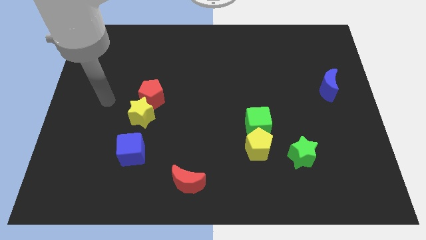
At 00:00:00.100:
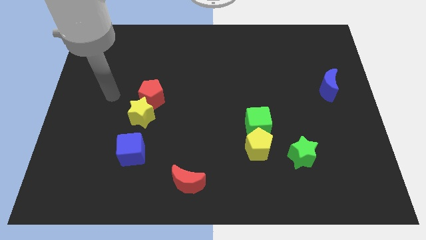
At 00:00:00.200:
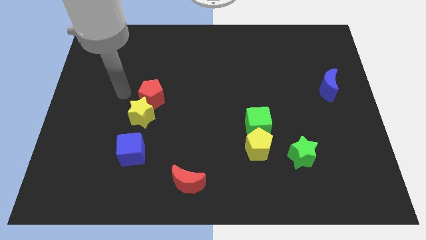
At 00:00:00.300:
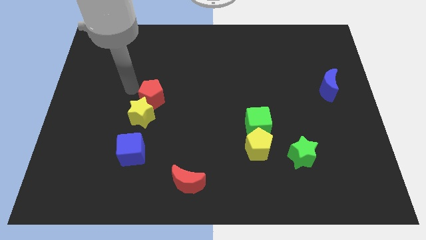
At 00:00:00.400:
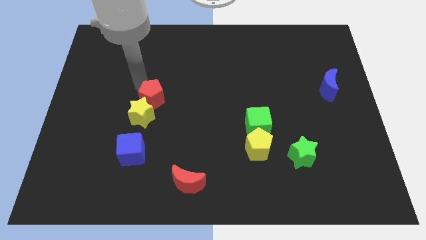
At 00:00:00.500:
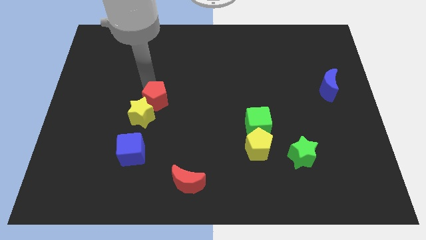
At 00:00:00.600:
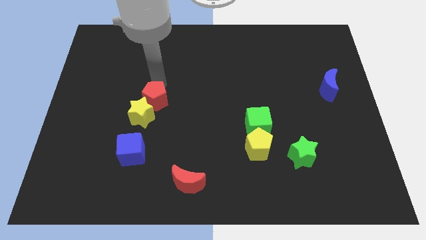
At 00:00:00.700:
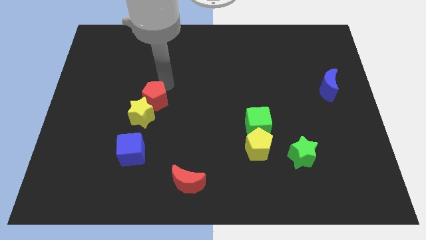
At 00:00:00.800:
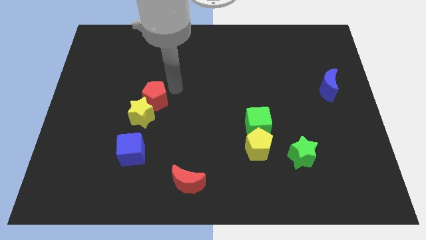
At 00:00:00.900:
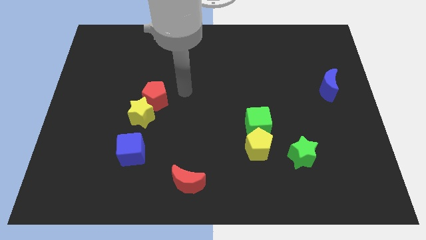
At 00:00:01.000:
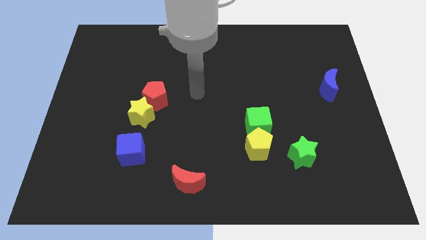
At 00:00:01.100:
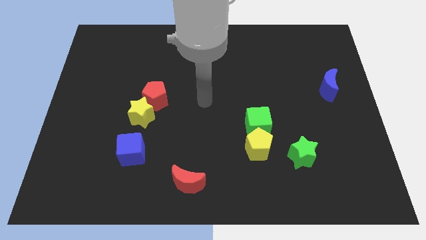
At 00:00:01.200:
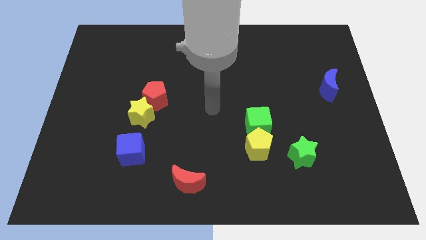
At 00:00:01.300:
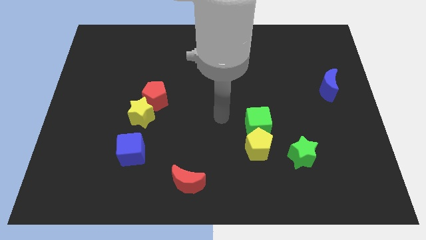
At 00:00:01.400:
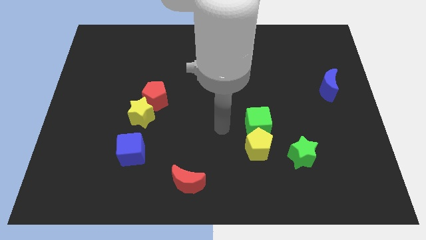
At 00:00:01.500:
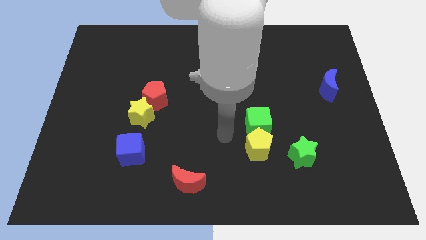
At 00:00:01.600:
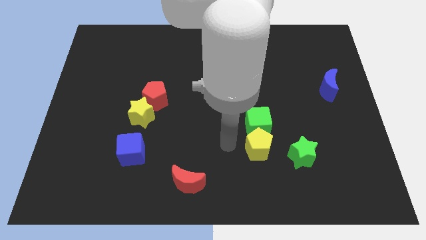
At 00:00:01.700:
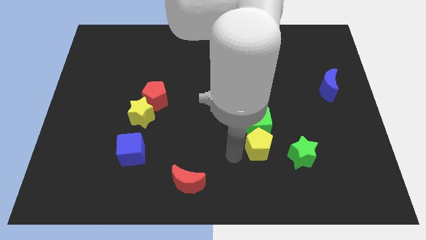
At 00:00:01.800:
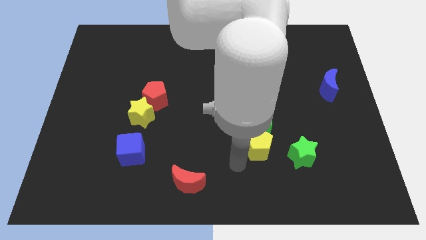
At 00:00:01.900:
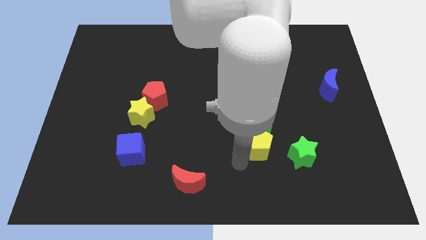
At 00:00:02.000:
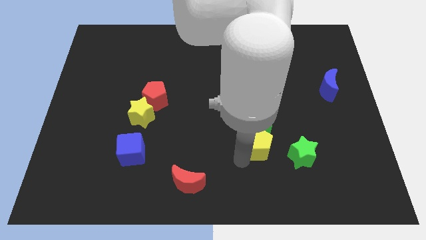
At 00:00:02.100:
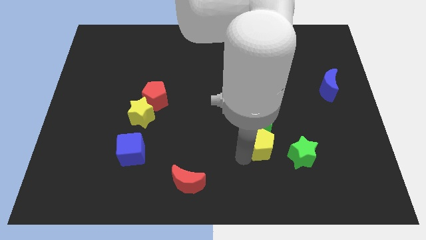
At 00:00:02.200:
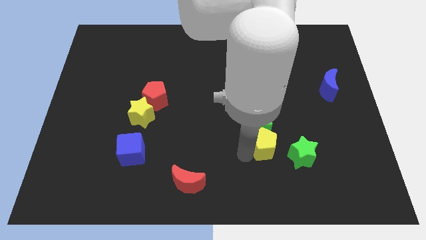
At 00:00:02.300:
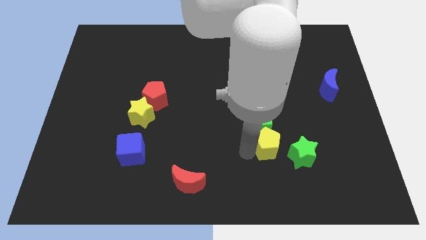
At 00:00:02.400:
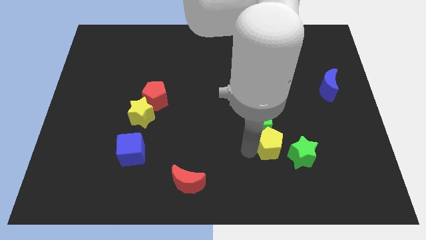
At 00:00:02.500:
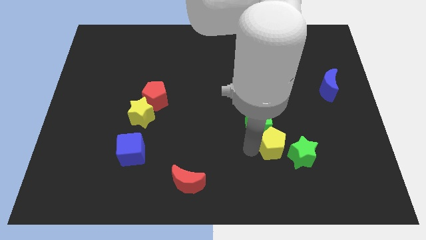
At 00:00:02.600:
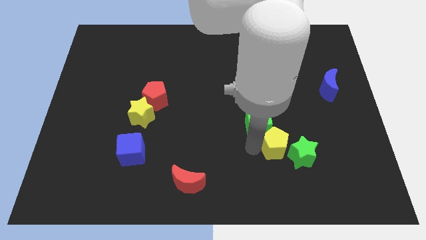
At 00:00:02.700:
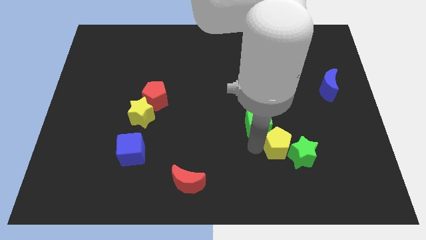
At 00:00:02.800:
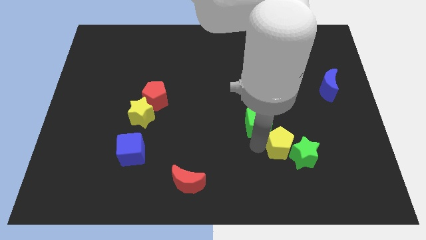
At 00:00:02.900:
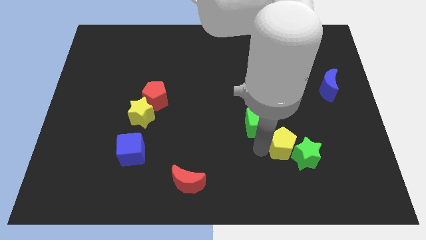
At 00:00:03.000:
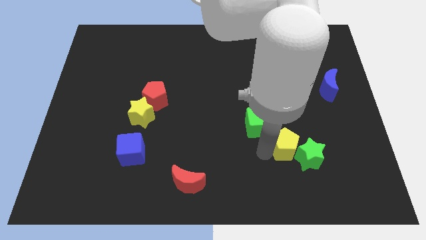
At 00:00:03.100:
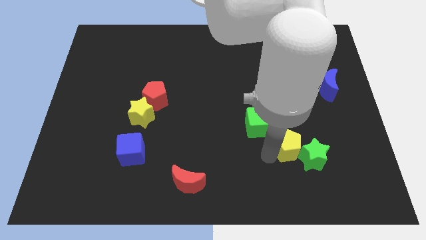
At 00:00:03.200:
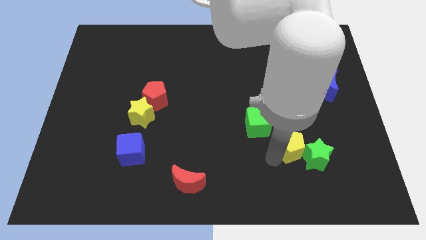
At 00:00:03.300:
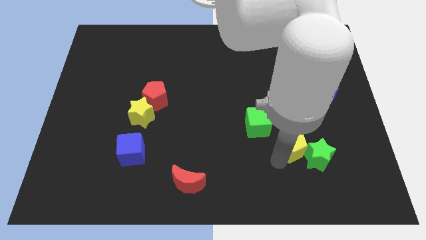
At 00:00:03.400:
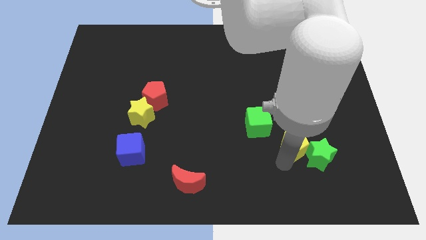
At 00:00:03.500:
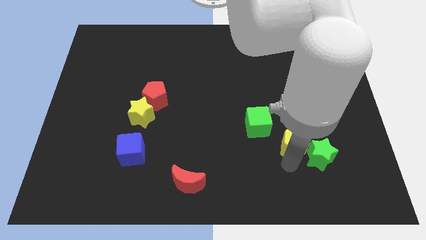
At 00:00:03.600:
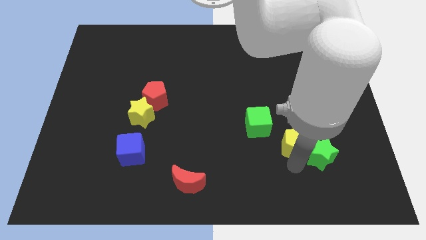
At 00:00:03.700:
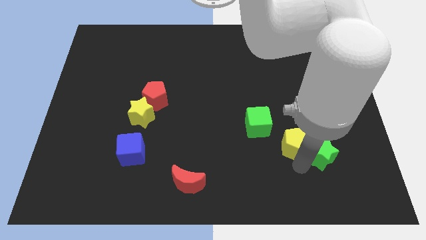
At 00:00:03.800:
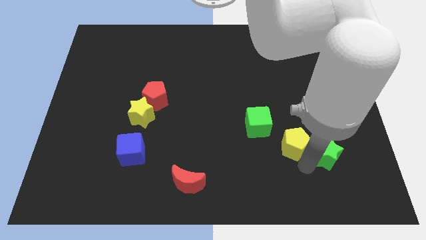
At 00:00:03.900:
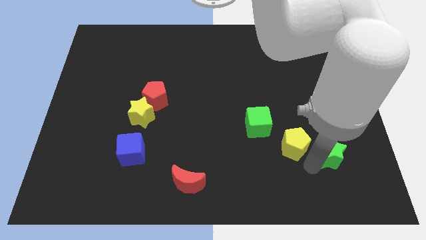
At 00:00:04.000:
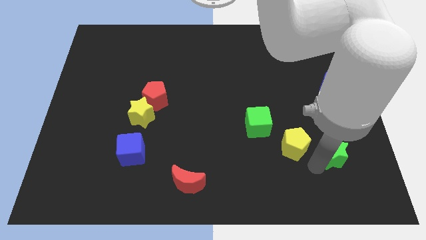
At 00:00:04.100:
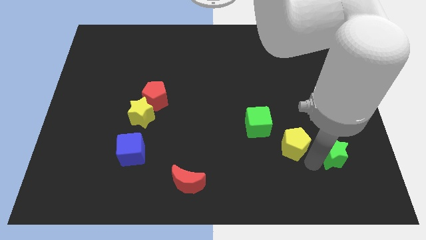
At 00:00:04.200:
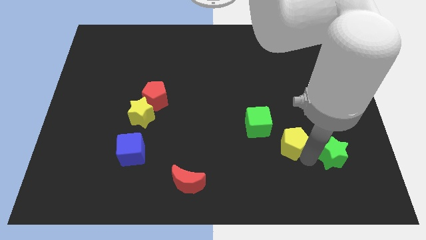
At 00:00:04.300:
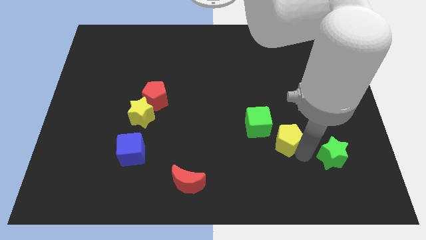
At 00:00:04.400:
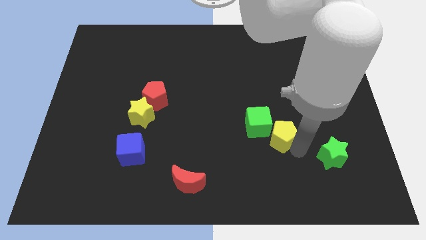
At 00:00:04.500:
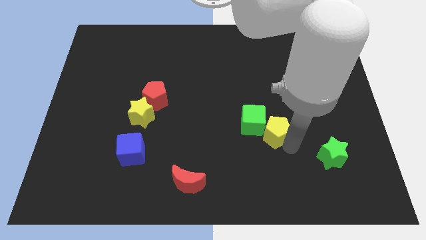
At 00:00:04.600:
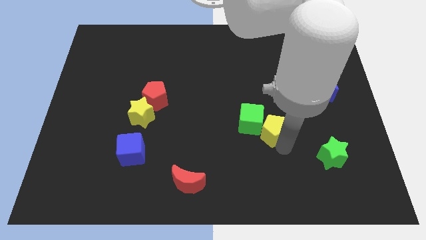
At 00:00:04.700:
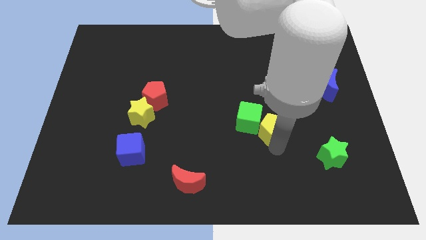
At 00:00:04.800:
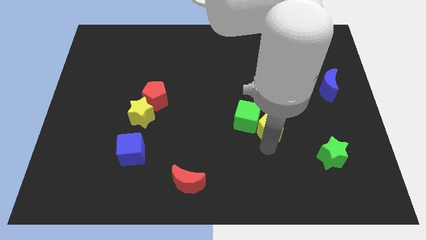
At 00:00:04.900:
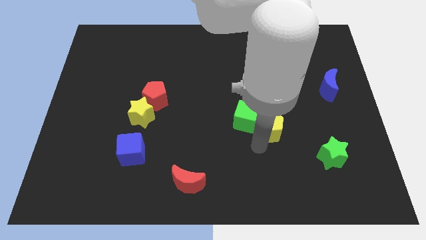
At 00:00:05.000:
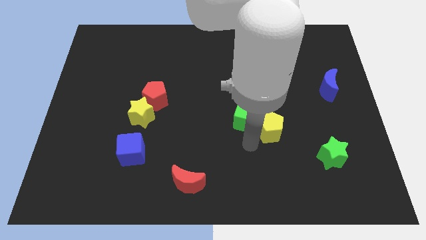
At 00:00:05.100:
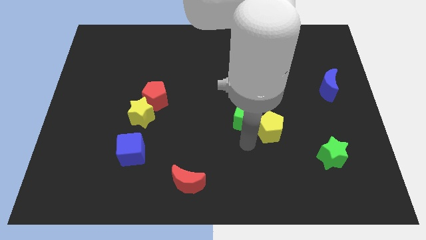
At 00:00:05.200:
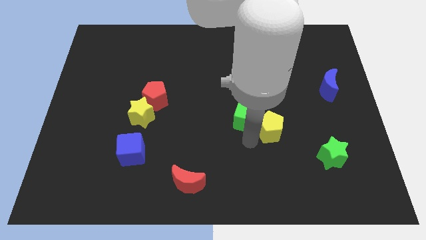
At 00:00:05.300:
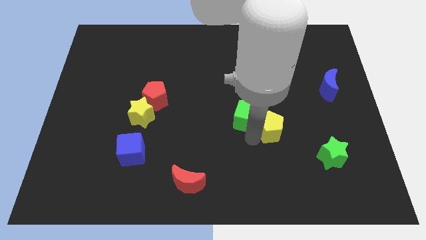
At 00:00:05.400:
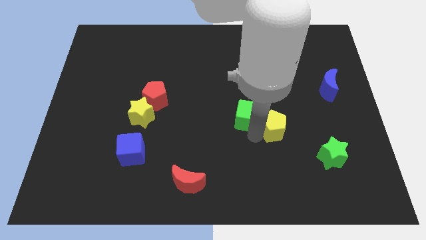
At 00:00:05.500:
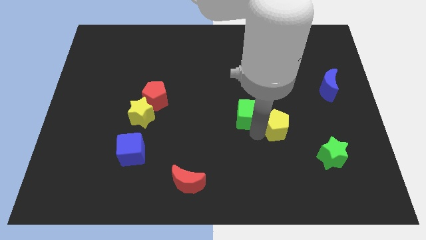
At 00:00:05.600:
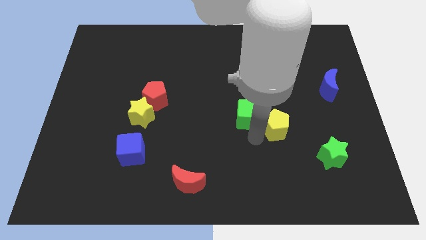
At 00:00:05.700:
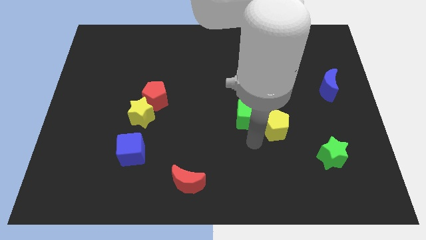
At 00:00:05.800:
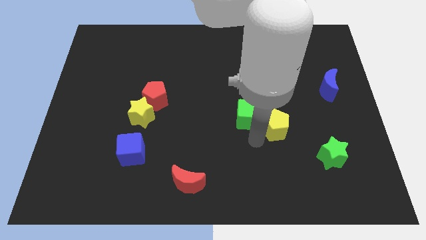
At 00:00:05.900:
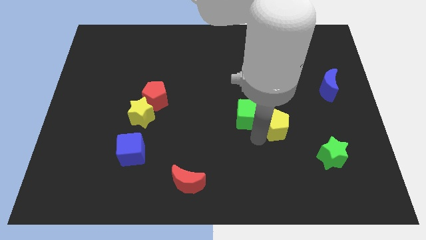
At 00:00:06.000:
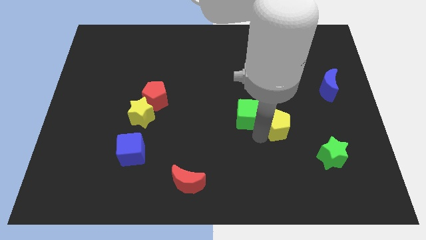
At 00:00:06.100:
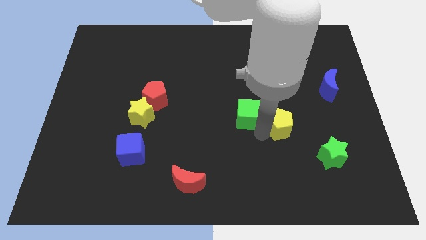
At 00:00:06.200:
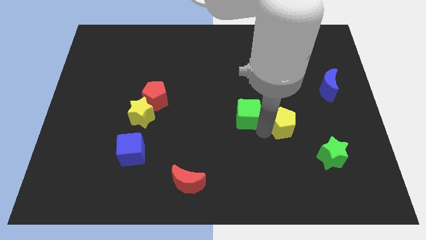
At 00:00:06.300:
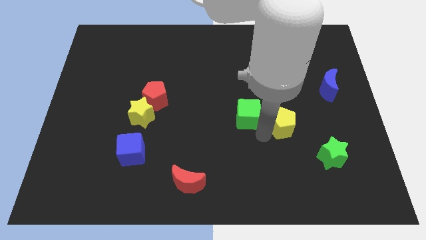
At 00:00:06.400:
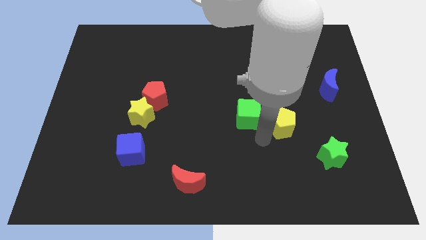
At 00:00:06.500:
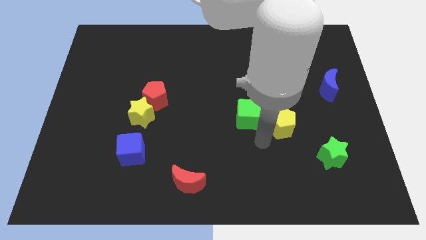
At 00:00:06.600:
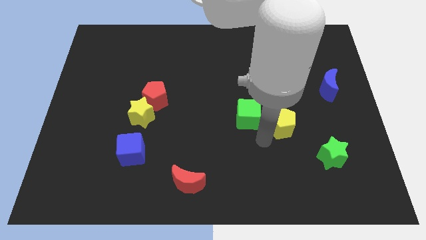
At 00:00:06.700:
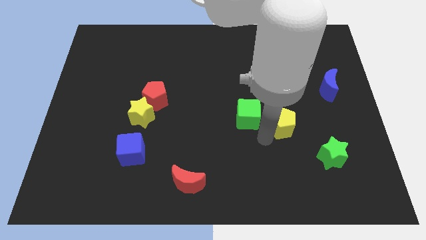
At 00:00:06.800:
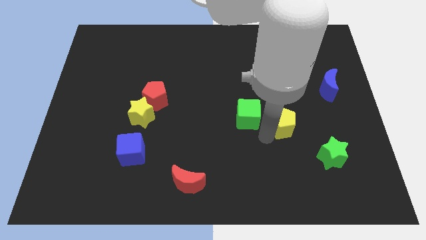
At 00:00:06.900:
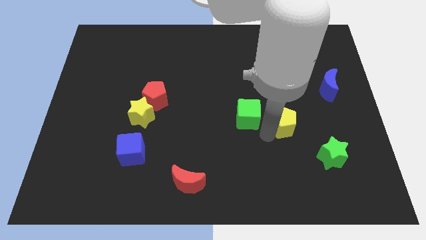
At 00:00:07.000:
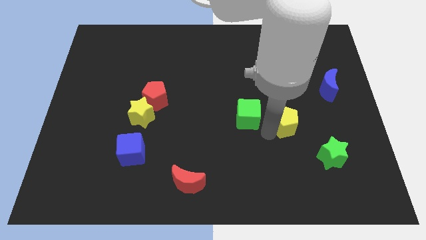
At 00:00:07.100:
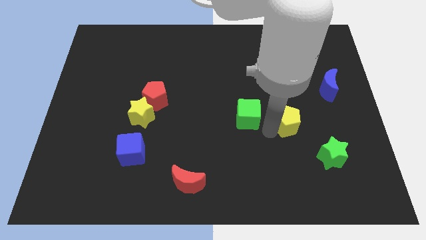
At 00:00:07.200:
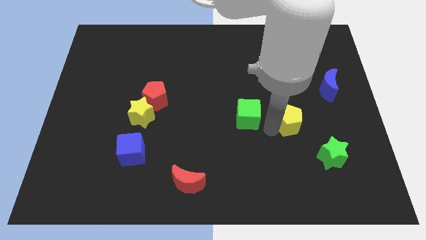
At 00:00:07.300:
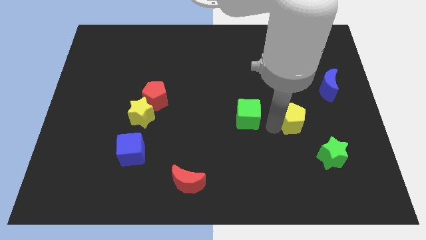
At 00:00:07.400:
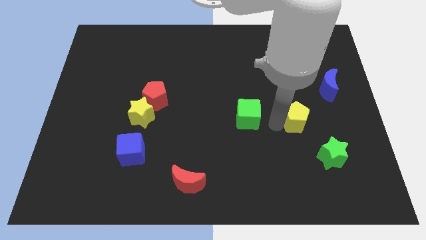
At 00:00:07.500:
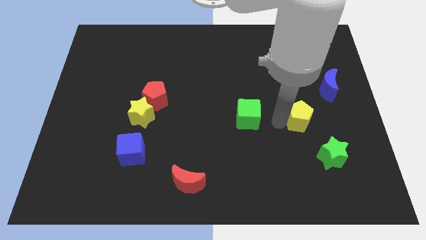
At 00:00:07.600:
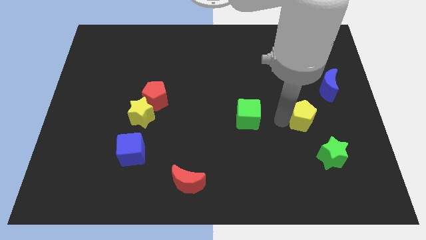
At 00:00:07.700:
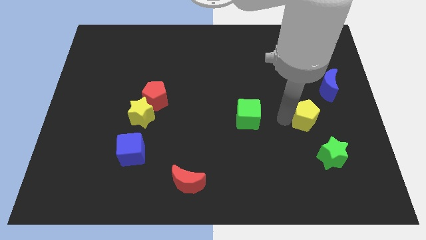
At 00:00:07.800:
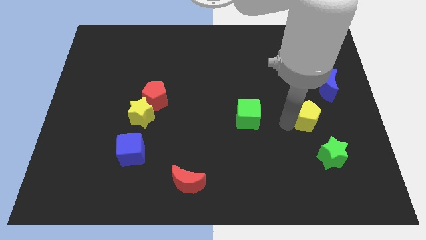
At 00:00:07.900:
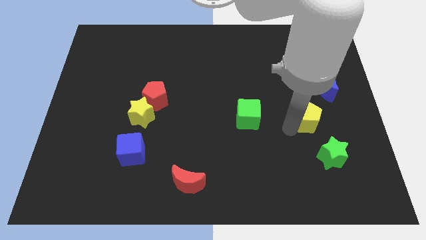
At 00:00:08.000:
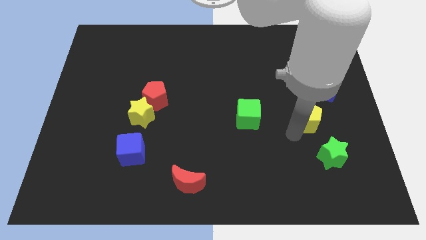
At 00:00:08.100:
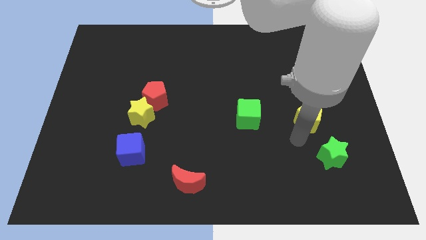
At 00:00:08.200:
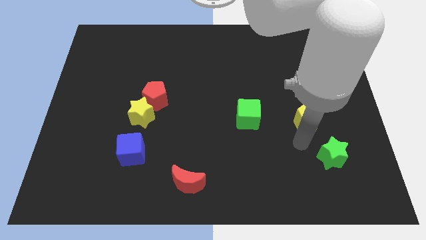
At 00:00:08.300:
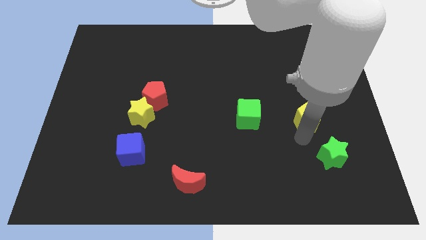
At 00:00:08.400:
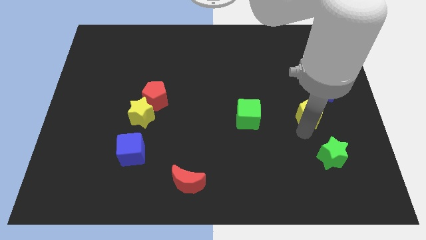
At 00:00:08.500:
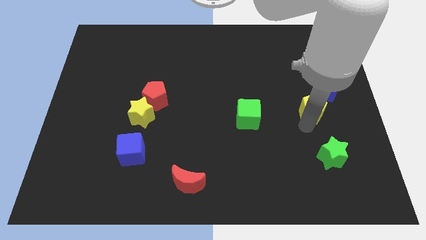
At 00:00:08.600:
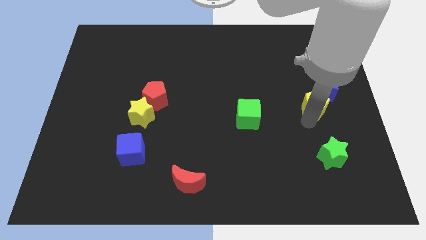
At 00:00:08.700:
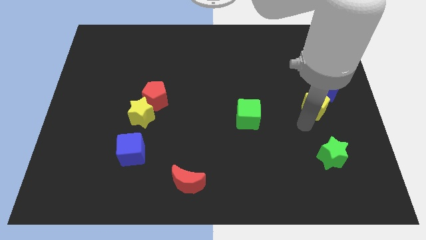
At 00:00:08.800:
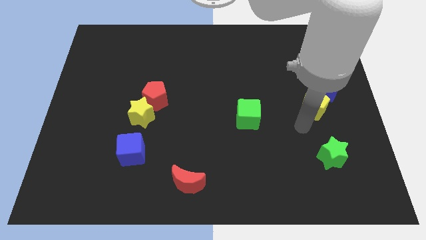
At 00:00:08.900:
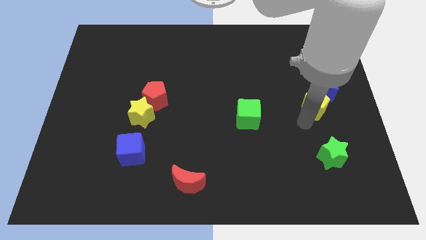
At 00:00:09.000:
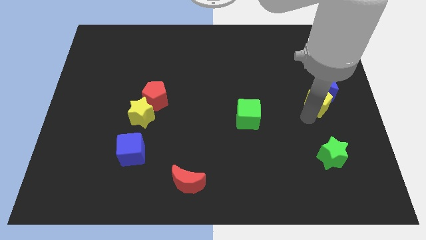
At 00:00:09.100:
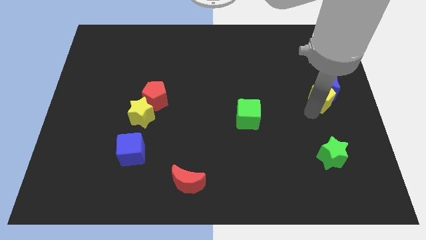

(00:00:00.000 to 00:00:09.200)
slide the yellow pentagon close to the blue moon
